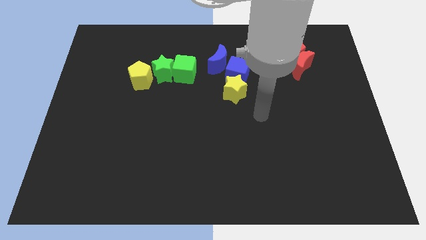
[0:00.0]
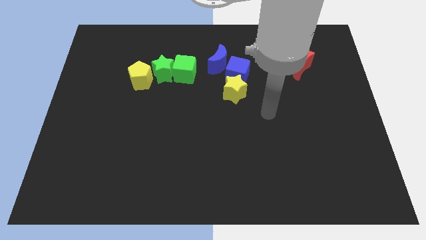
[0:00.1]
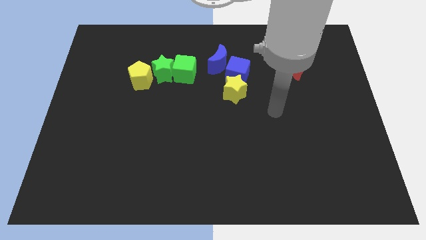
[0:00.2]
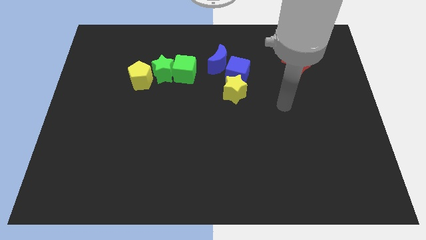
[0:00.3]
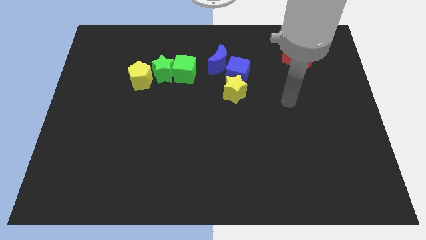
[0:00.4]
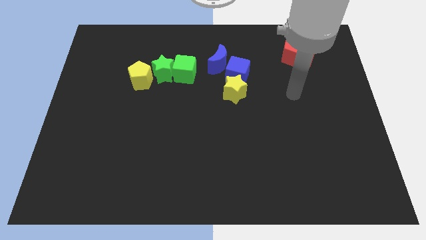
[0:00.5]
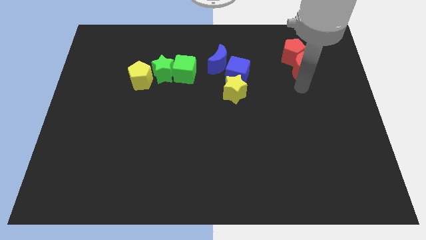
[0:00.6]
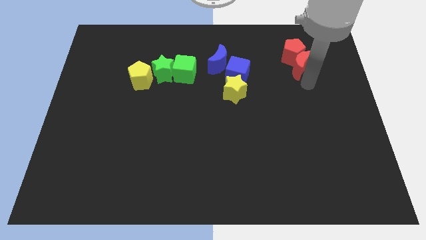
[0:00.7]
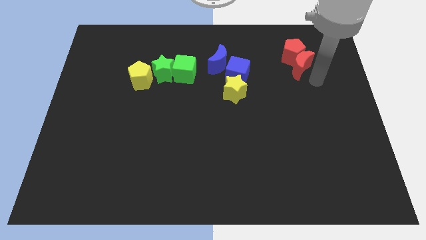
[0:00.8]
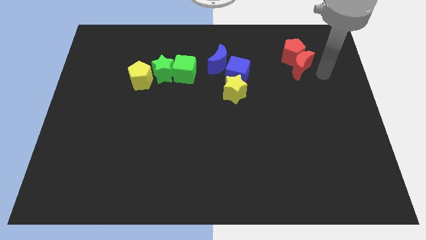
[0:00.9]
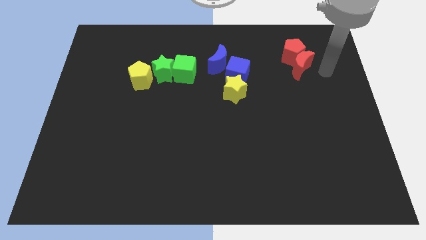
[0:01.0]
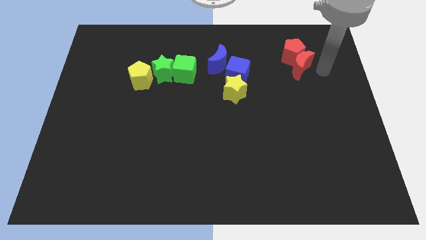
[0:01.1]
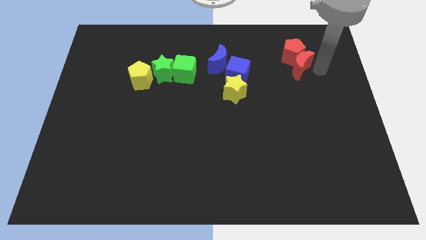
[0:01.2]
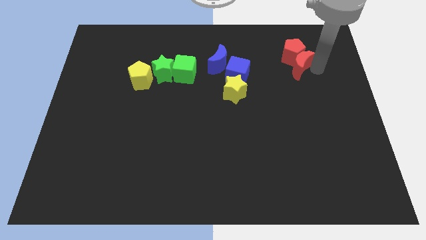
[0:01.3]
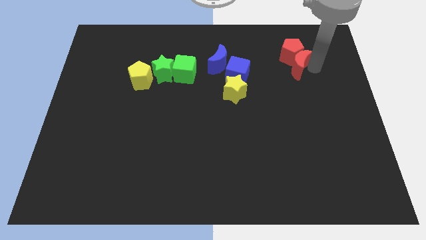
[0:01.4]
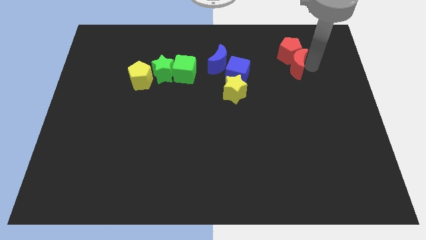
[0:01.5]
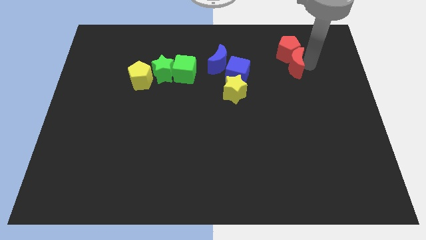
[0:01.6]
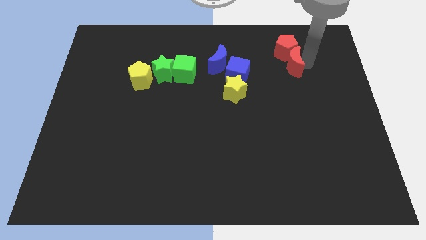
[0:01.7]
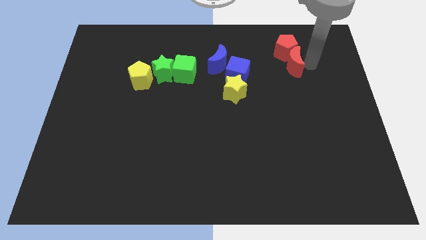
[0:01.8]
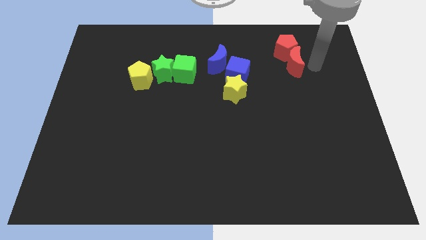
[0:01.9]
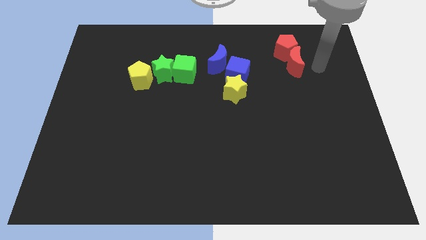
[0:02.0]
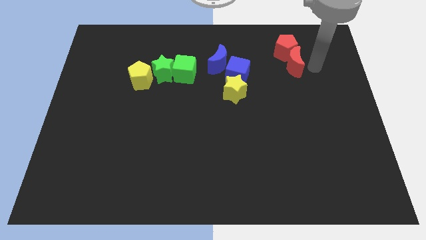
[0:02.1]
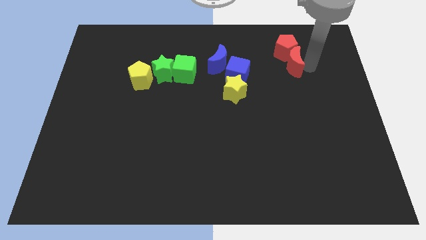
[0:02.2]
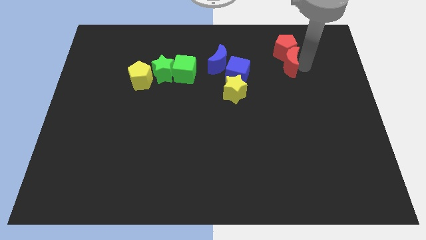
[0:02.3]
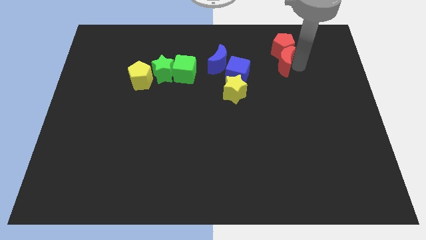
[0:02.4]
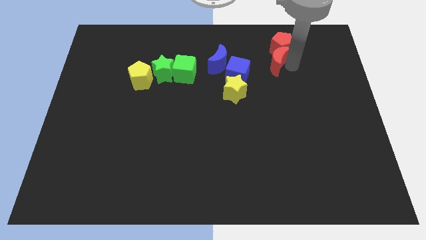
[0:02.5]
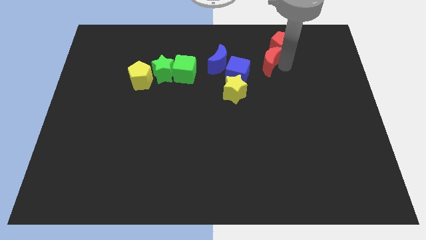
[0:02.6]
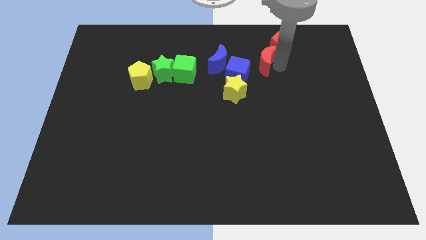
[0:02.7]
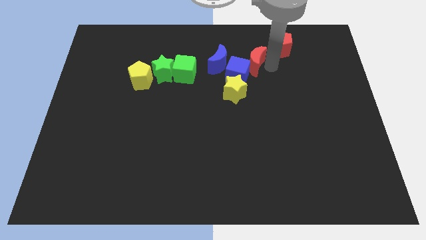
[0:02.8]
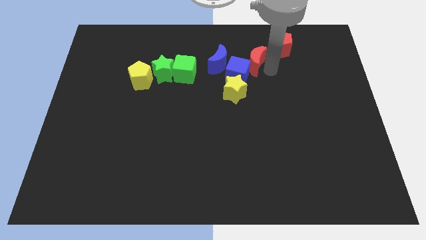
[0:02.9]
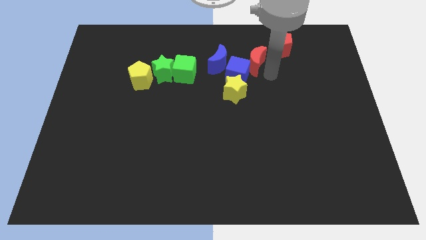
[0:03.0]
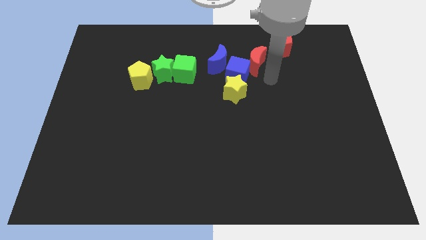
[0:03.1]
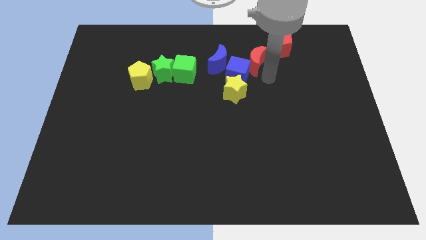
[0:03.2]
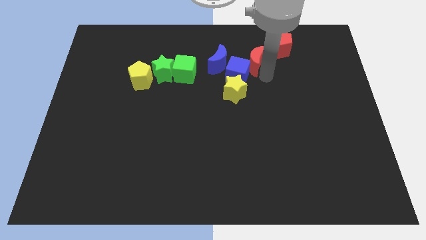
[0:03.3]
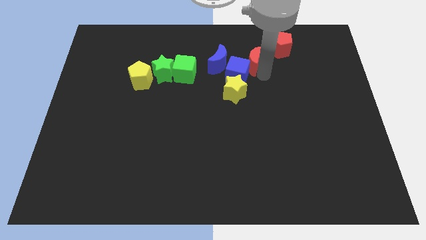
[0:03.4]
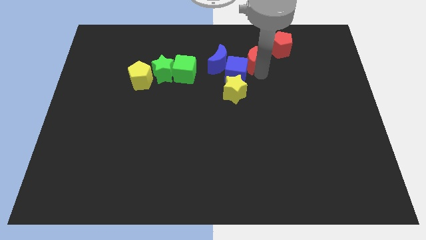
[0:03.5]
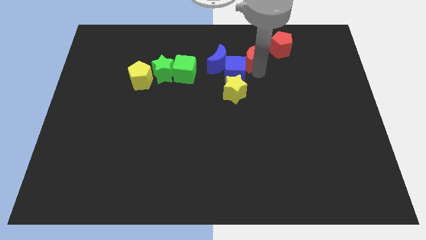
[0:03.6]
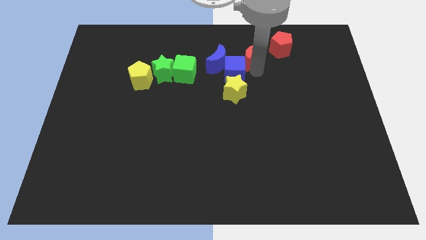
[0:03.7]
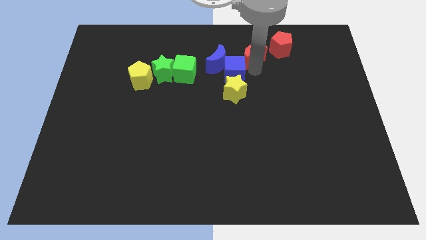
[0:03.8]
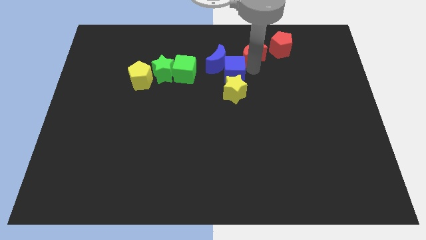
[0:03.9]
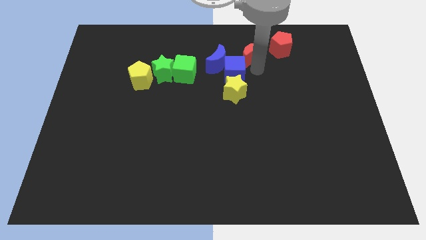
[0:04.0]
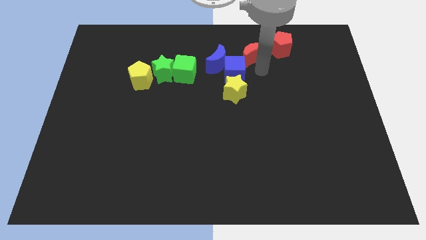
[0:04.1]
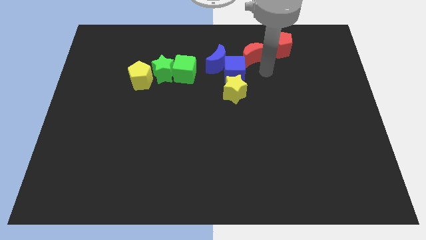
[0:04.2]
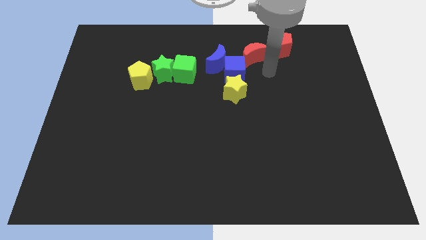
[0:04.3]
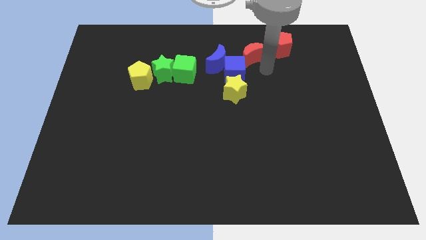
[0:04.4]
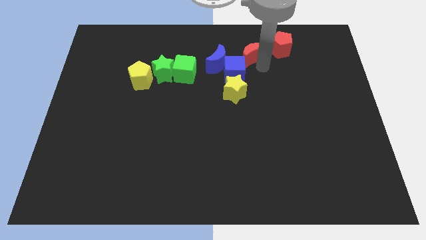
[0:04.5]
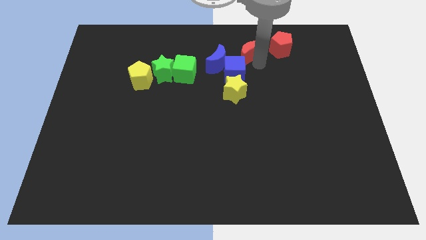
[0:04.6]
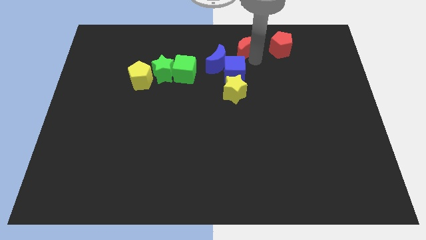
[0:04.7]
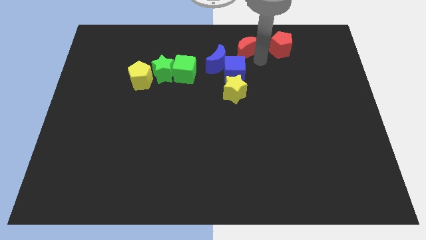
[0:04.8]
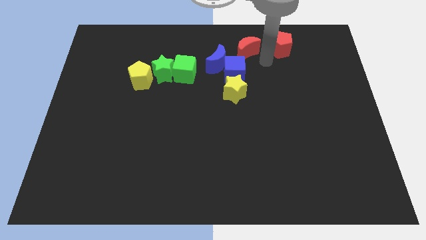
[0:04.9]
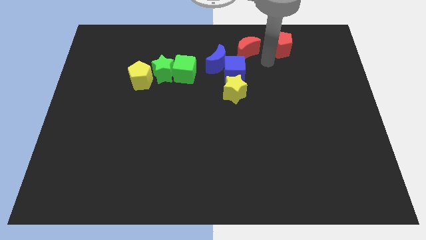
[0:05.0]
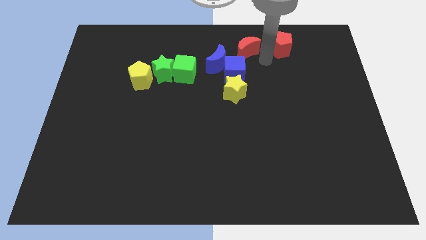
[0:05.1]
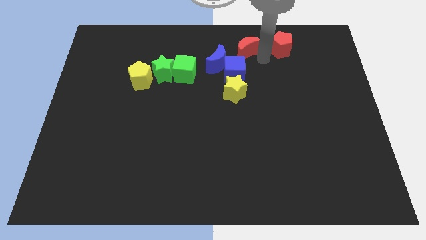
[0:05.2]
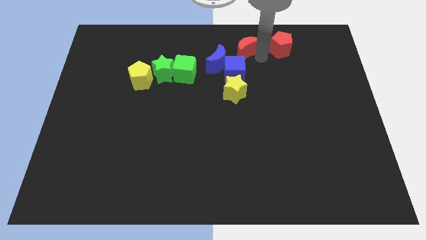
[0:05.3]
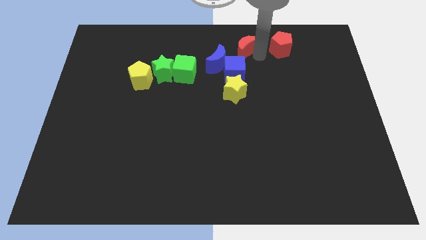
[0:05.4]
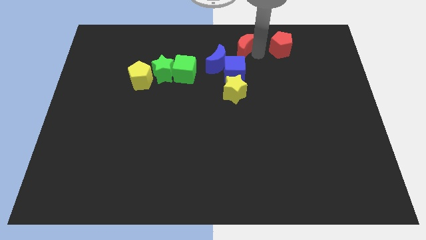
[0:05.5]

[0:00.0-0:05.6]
push the red moon to the towards your base

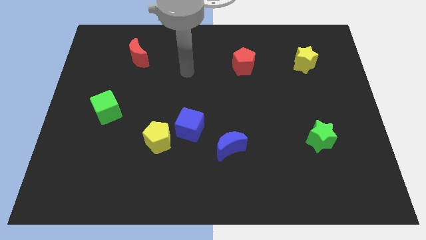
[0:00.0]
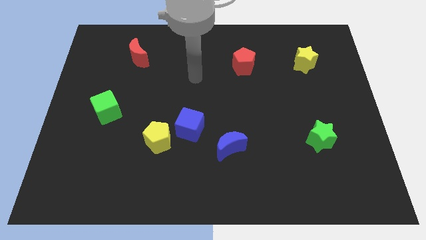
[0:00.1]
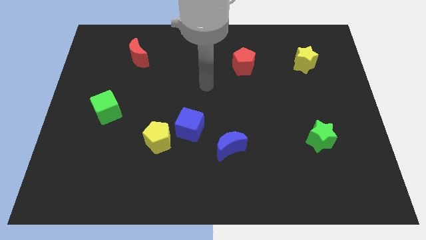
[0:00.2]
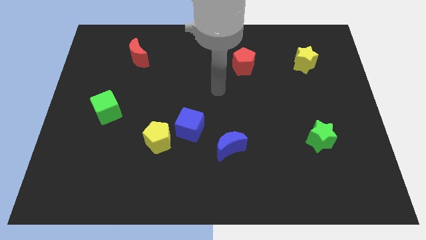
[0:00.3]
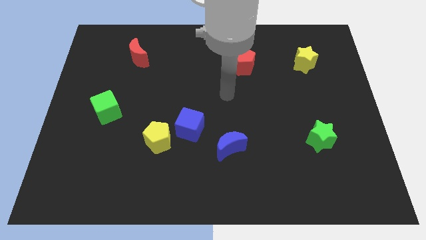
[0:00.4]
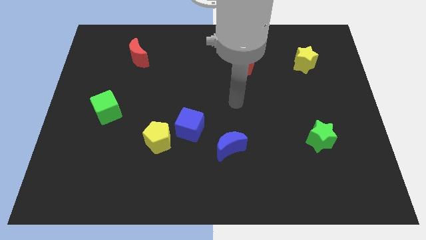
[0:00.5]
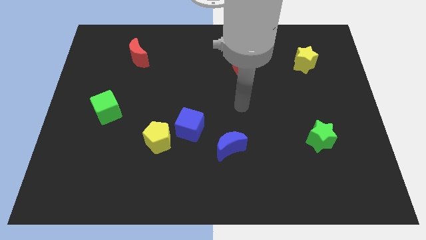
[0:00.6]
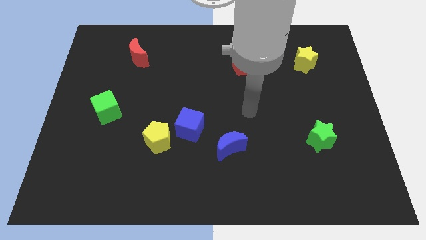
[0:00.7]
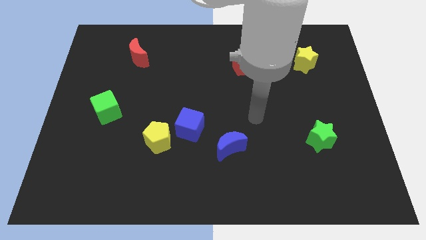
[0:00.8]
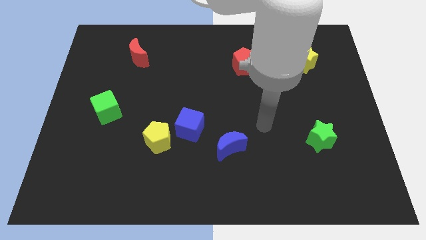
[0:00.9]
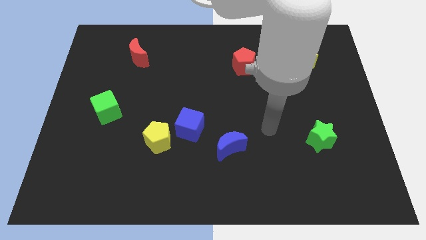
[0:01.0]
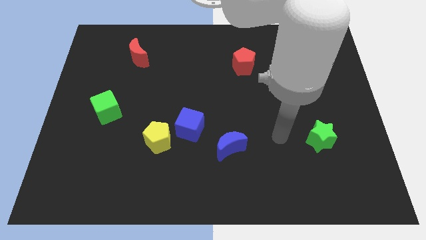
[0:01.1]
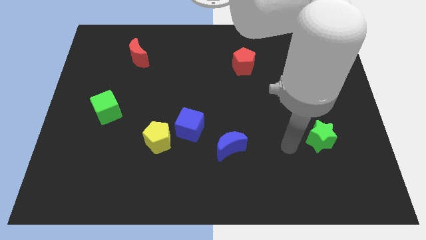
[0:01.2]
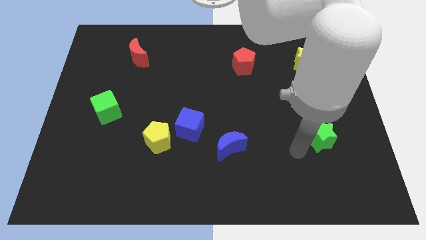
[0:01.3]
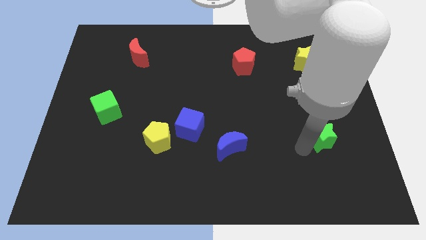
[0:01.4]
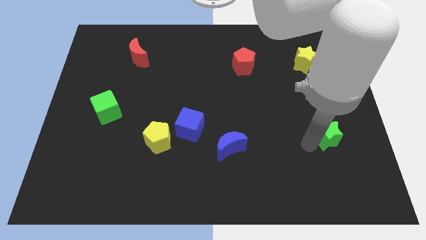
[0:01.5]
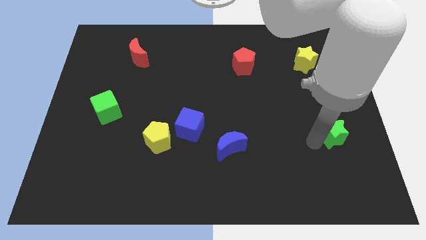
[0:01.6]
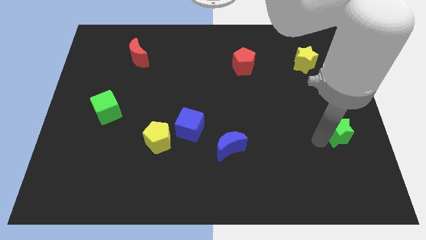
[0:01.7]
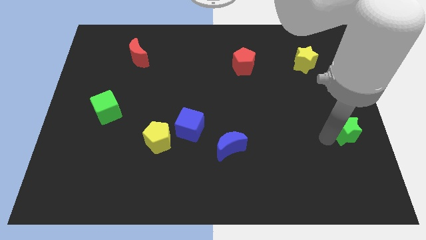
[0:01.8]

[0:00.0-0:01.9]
slide the green star to the right side of the board

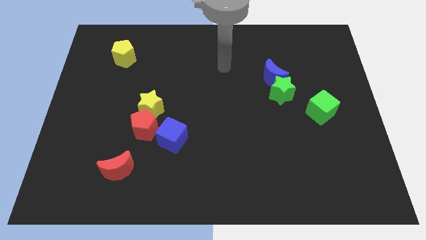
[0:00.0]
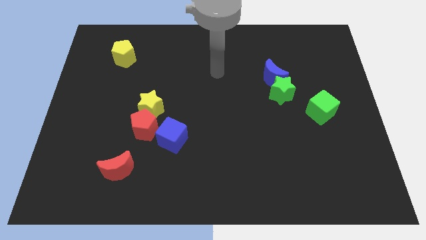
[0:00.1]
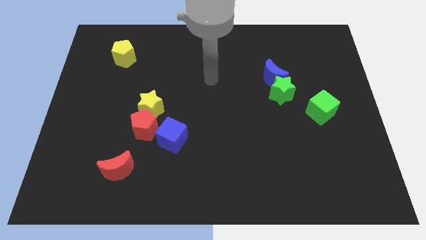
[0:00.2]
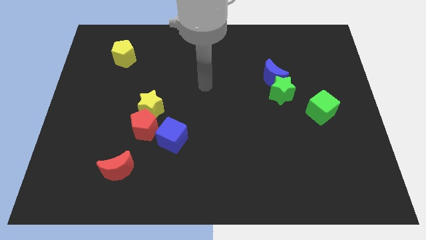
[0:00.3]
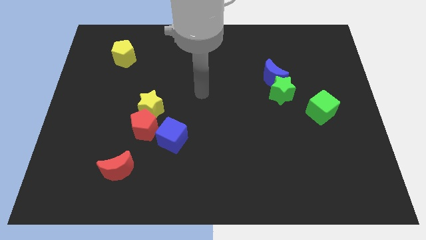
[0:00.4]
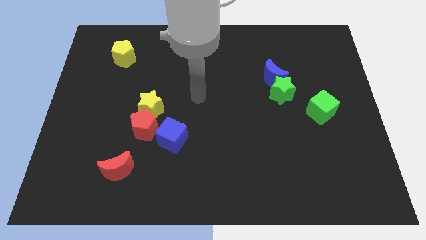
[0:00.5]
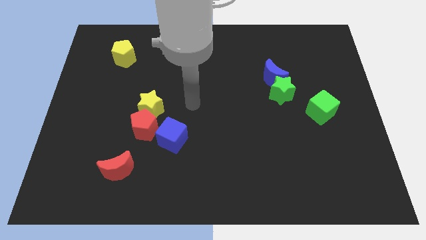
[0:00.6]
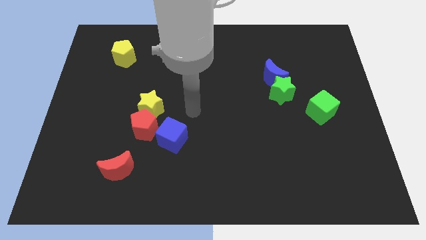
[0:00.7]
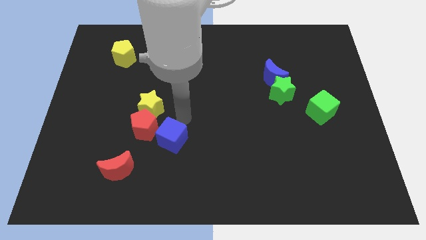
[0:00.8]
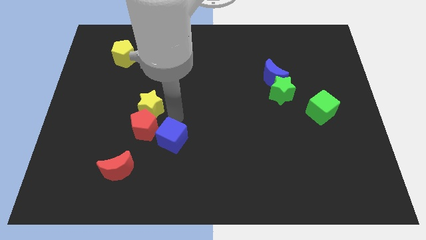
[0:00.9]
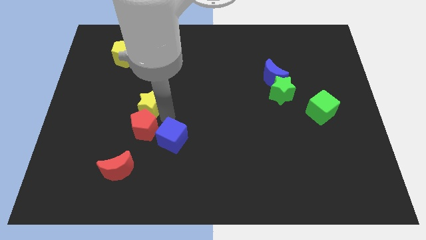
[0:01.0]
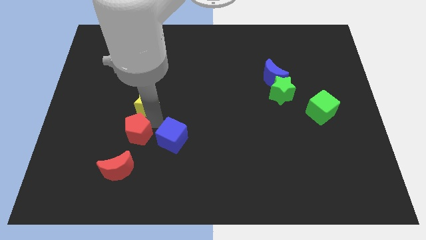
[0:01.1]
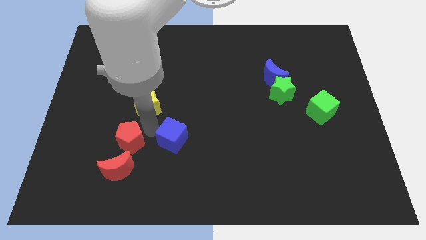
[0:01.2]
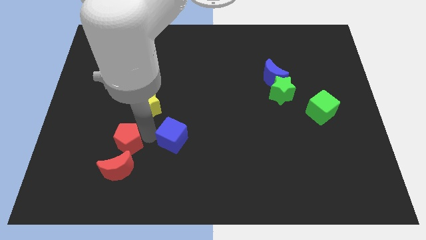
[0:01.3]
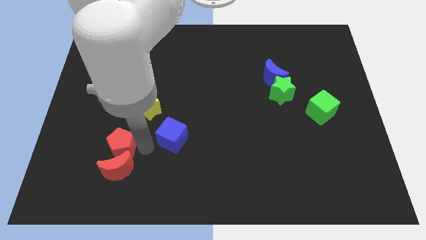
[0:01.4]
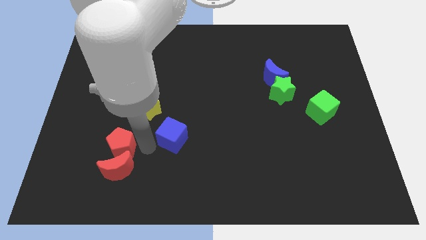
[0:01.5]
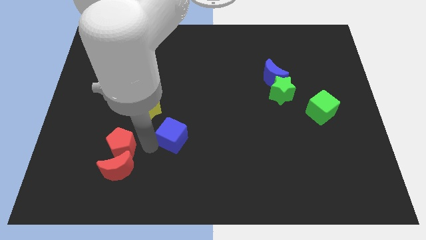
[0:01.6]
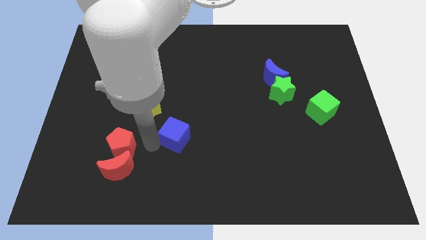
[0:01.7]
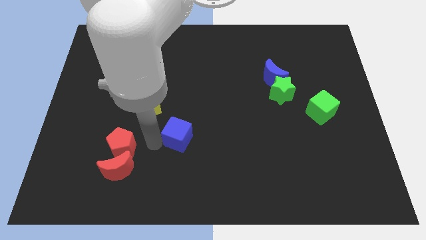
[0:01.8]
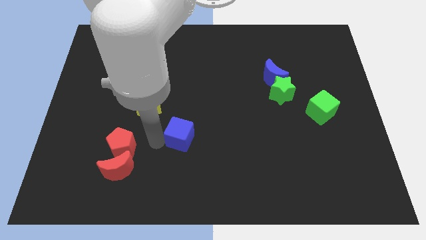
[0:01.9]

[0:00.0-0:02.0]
slide the blue cube to the center of the board
